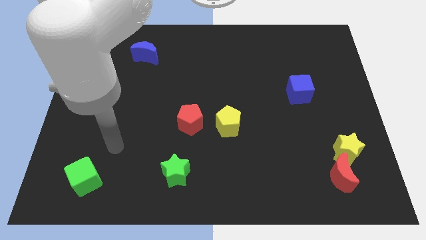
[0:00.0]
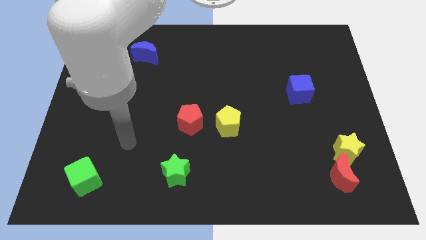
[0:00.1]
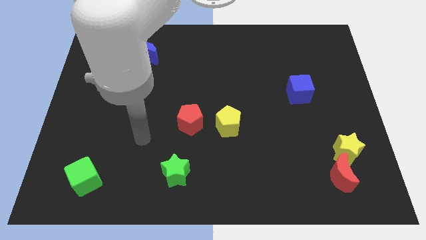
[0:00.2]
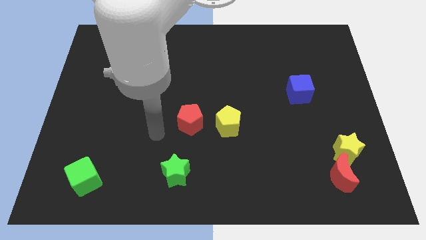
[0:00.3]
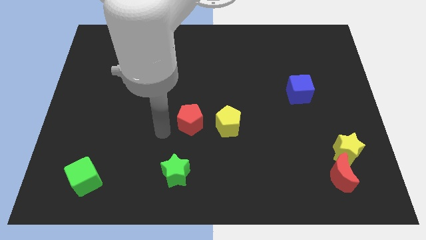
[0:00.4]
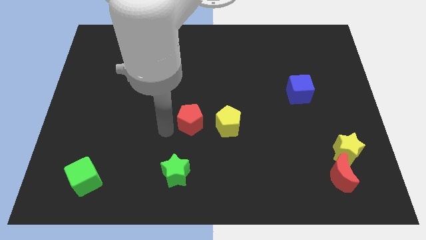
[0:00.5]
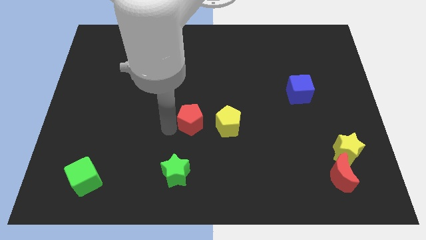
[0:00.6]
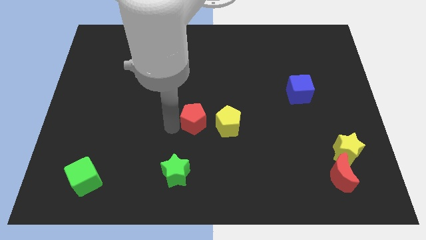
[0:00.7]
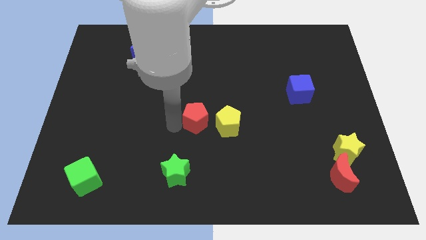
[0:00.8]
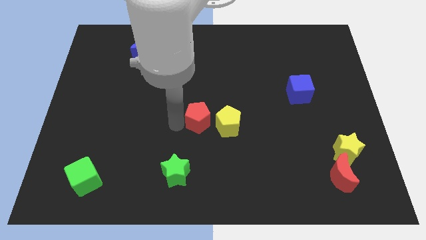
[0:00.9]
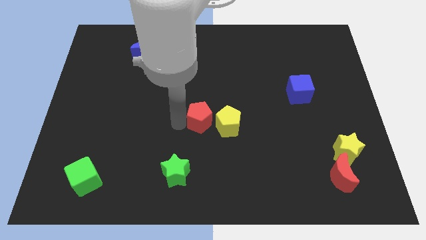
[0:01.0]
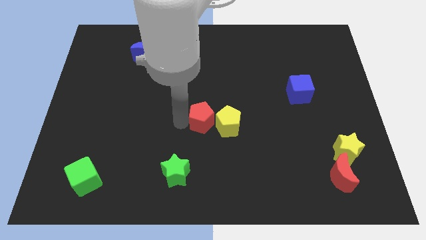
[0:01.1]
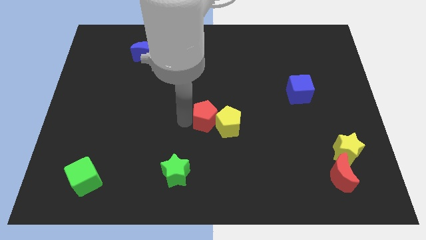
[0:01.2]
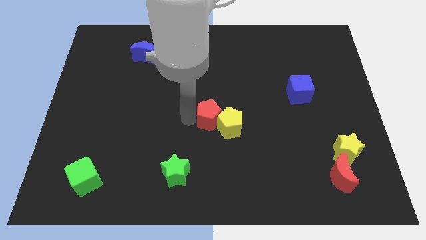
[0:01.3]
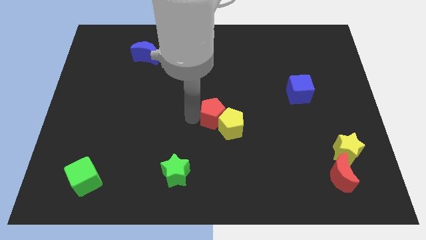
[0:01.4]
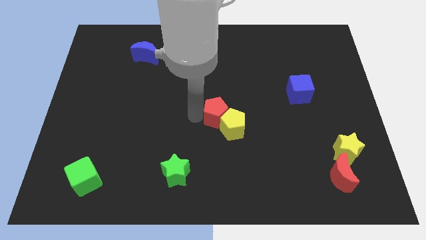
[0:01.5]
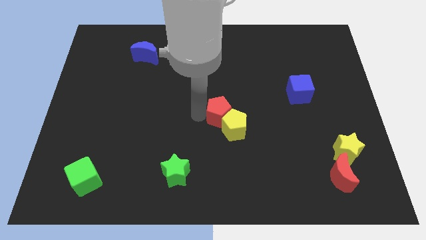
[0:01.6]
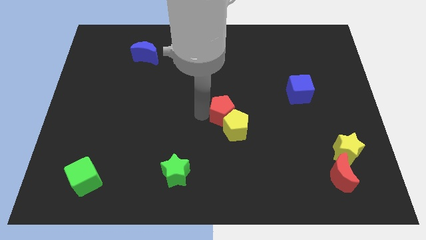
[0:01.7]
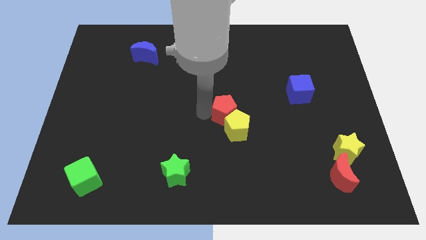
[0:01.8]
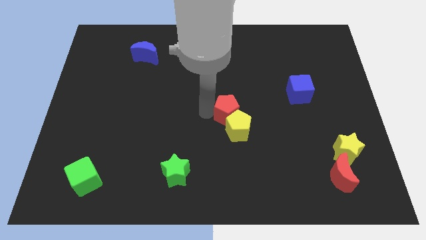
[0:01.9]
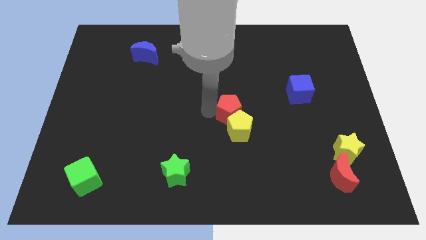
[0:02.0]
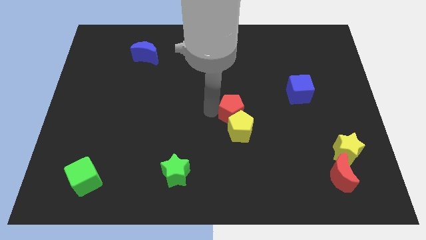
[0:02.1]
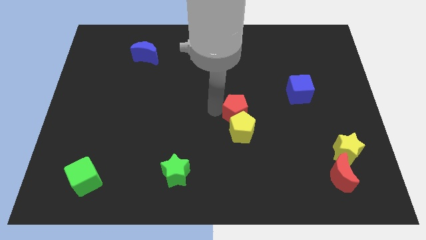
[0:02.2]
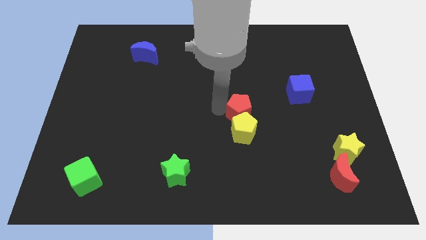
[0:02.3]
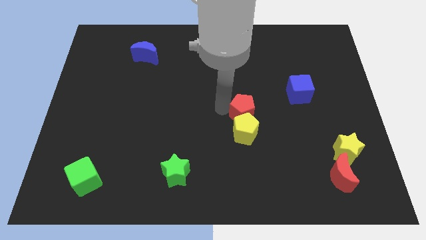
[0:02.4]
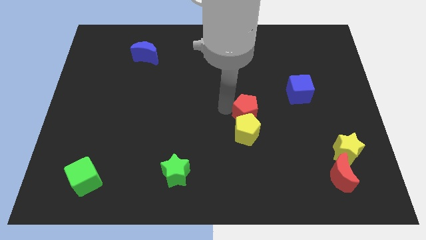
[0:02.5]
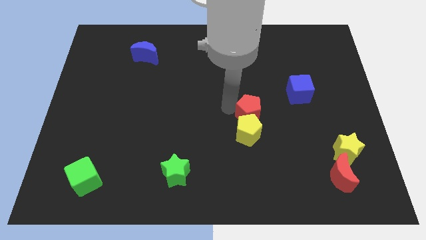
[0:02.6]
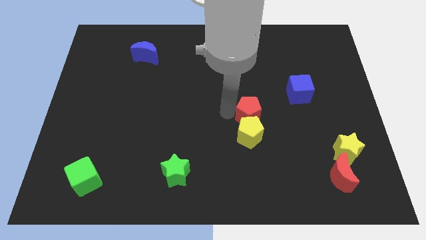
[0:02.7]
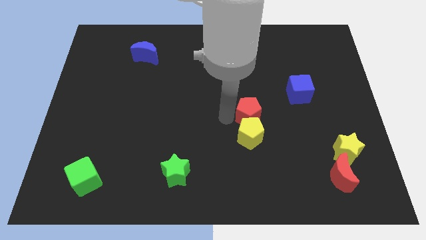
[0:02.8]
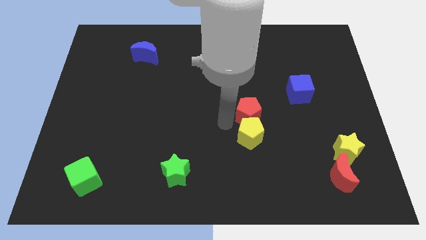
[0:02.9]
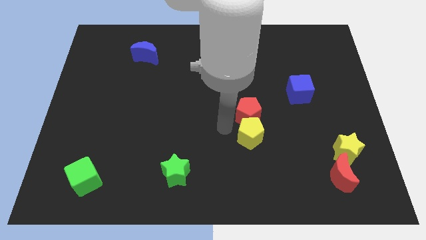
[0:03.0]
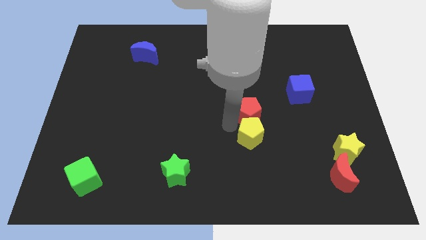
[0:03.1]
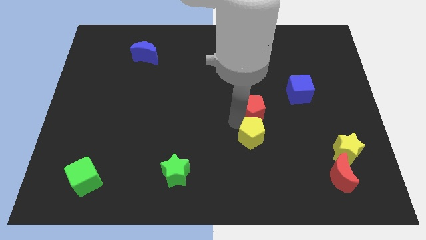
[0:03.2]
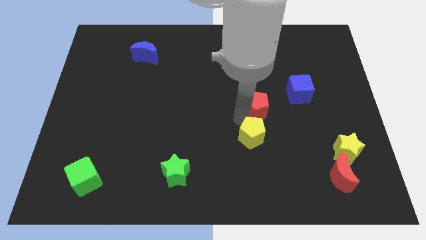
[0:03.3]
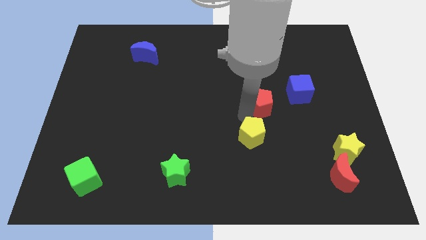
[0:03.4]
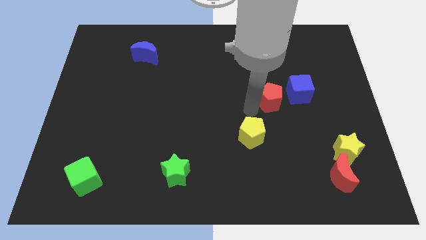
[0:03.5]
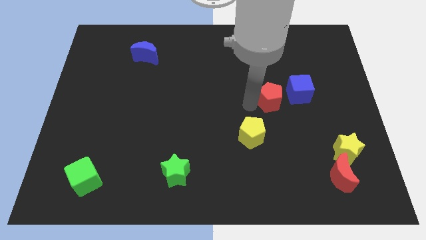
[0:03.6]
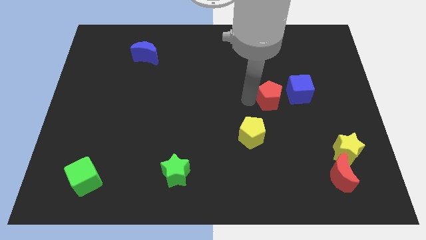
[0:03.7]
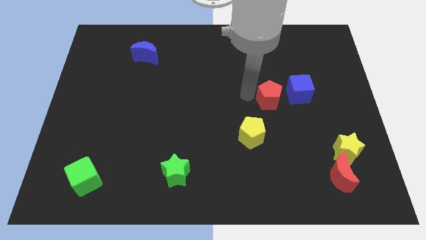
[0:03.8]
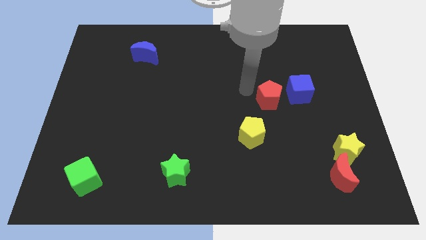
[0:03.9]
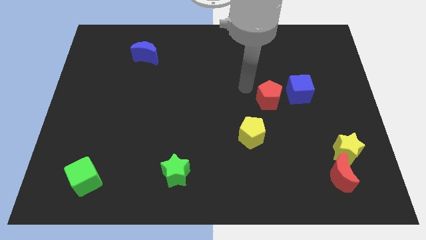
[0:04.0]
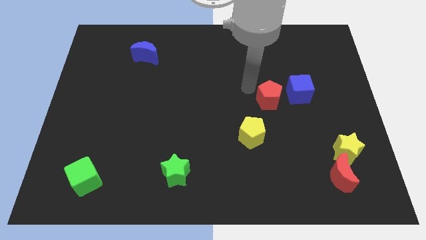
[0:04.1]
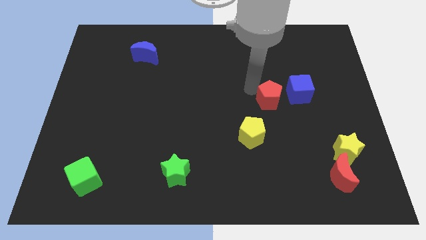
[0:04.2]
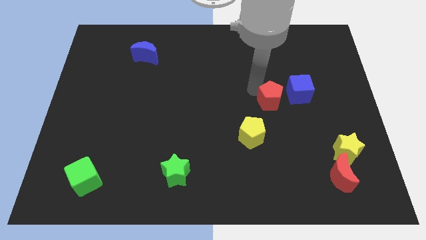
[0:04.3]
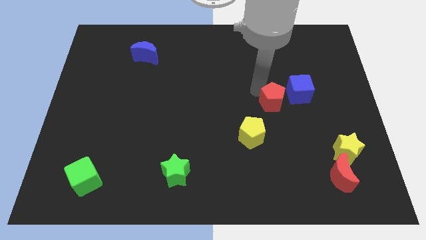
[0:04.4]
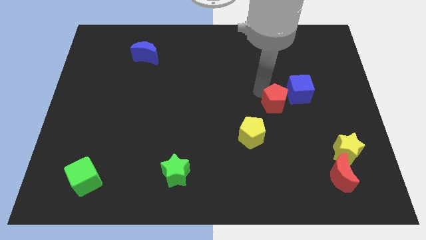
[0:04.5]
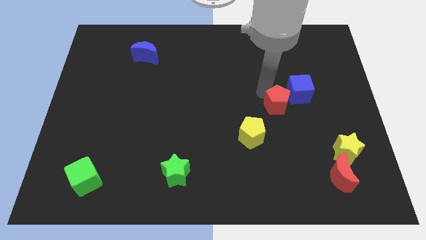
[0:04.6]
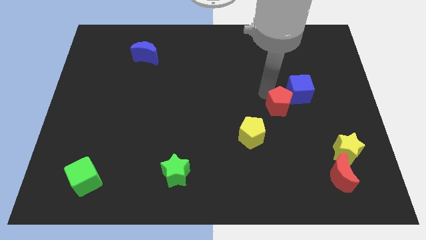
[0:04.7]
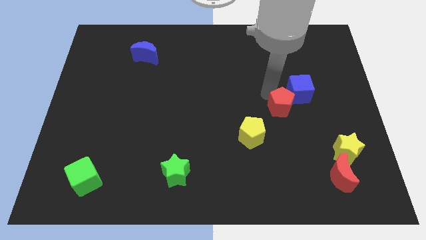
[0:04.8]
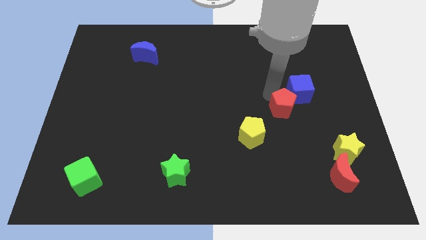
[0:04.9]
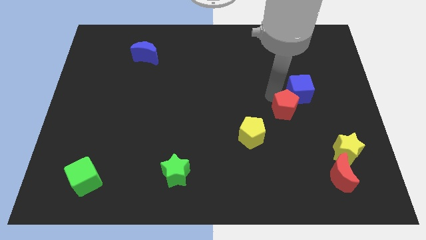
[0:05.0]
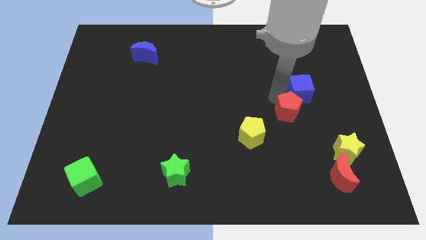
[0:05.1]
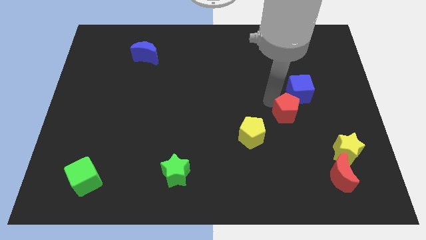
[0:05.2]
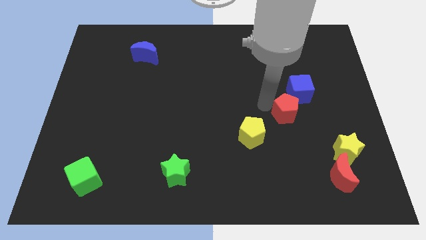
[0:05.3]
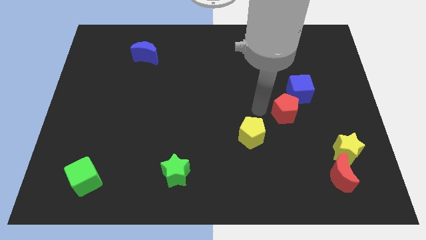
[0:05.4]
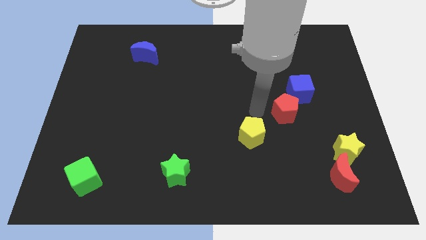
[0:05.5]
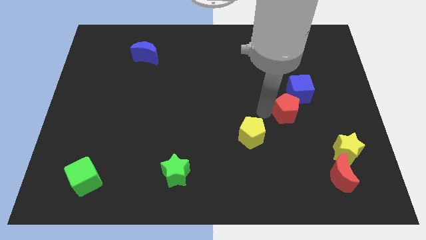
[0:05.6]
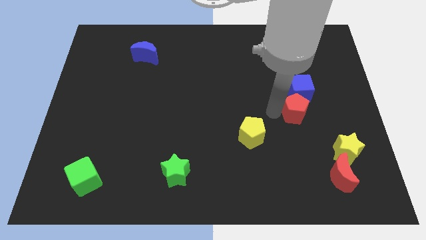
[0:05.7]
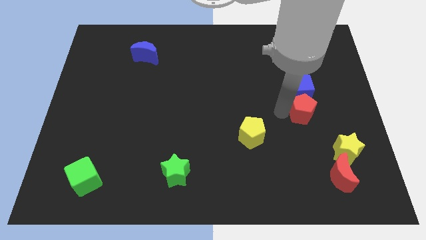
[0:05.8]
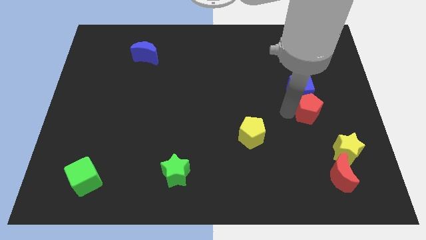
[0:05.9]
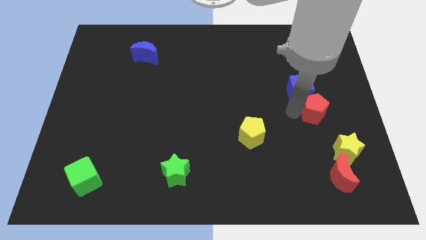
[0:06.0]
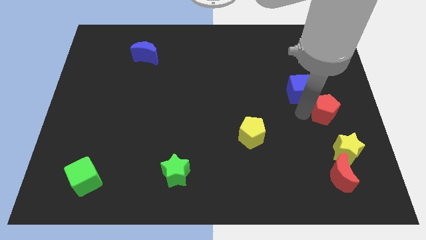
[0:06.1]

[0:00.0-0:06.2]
put the red pentagon to the center right

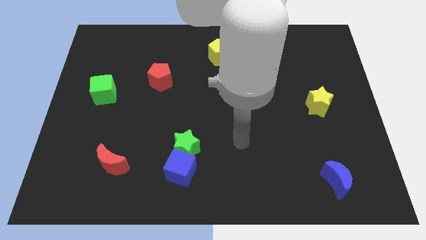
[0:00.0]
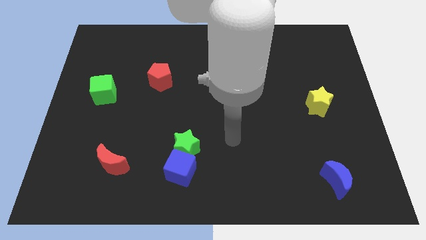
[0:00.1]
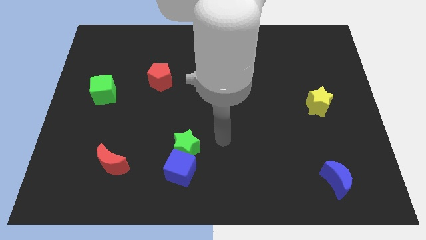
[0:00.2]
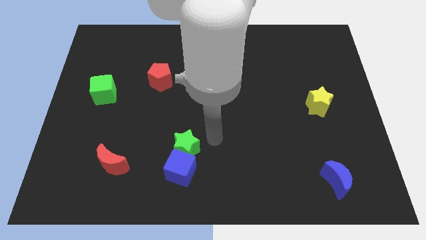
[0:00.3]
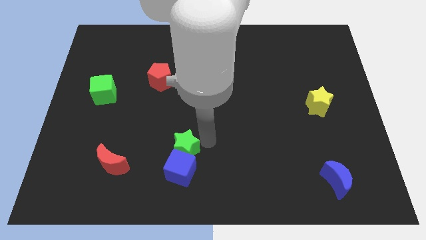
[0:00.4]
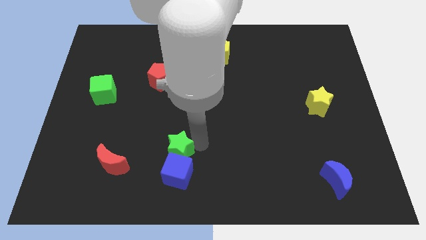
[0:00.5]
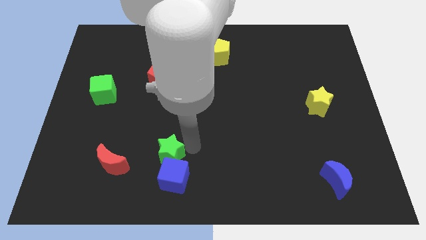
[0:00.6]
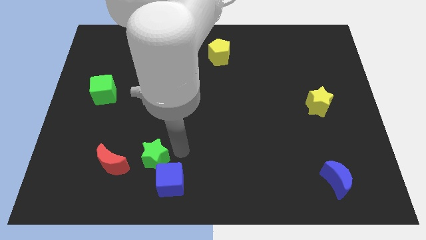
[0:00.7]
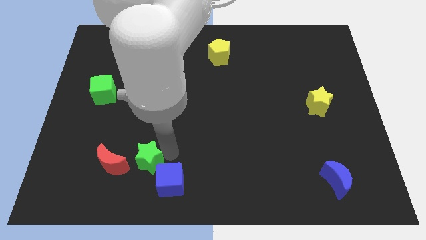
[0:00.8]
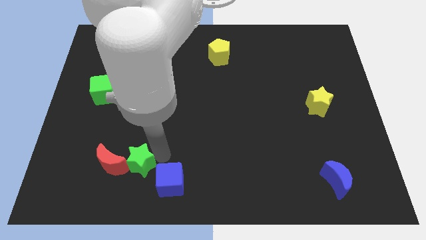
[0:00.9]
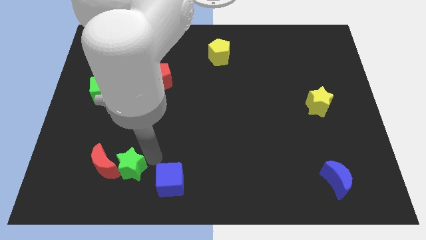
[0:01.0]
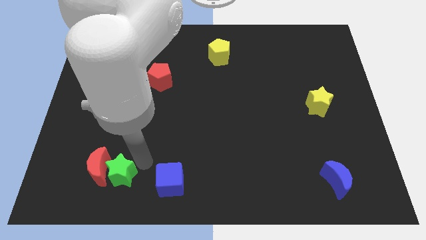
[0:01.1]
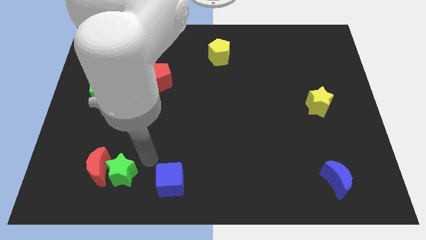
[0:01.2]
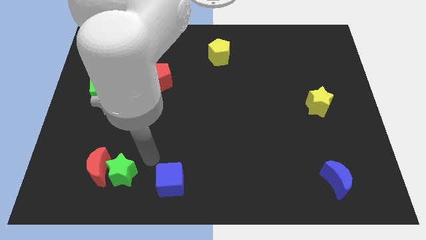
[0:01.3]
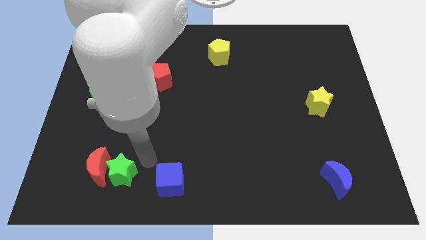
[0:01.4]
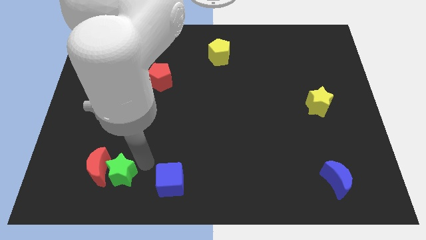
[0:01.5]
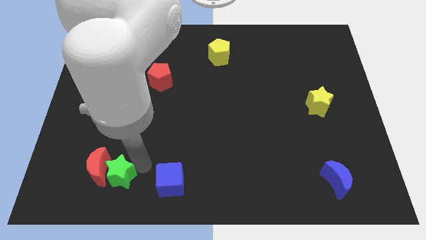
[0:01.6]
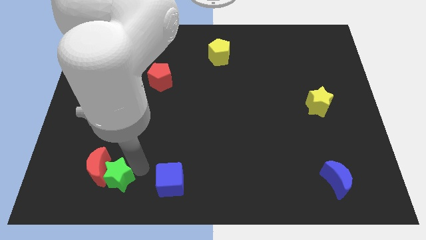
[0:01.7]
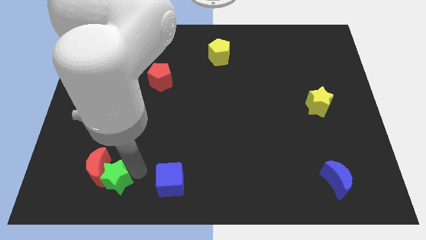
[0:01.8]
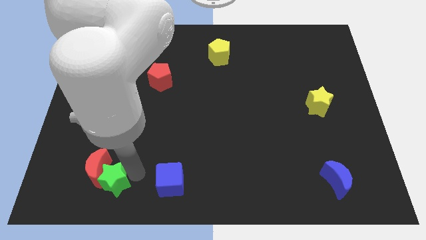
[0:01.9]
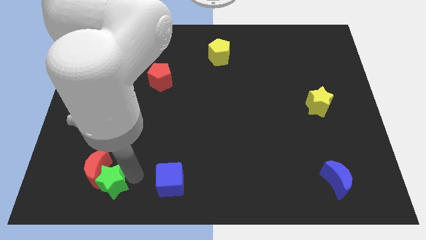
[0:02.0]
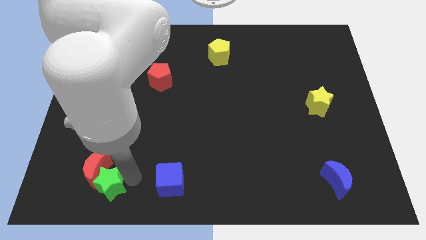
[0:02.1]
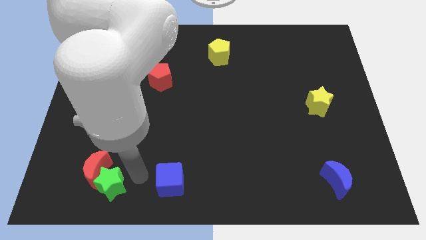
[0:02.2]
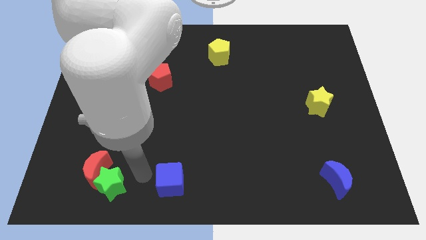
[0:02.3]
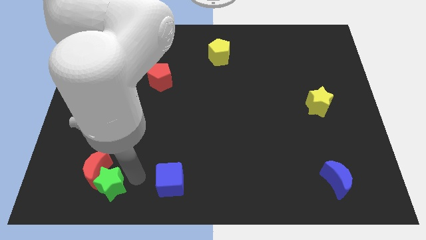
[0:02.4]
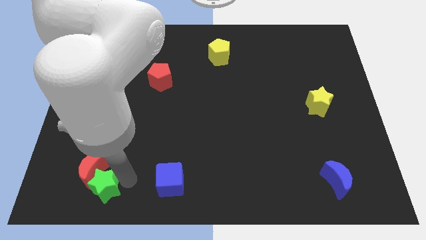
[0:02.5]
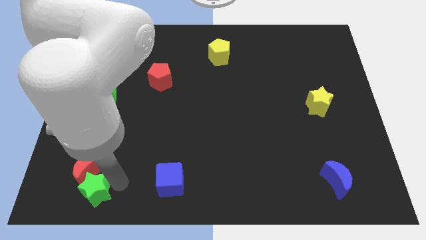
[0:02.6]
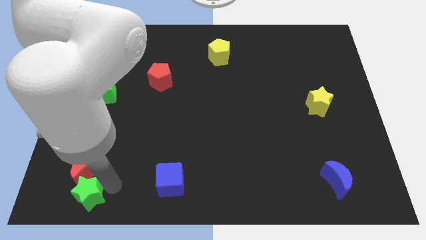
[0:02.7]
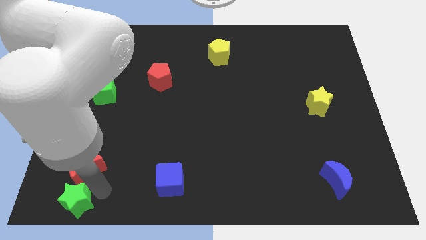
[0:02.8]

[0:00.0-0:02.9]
push the green star to the bottom left of the board
